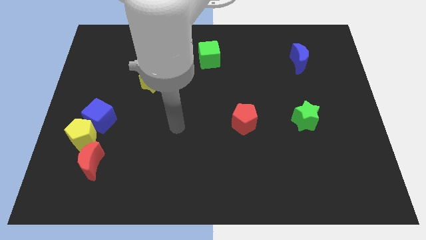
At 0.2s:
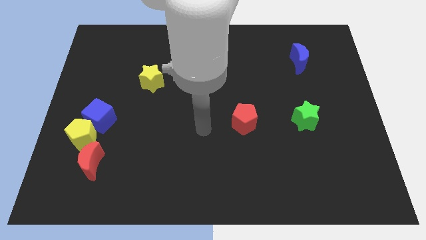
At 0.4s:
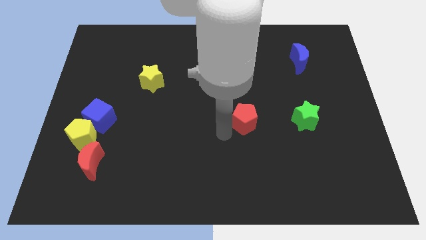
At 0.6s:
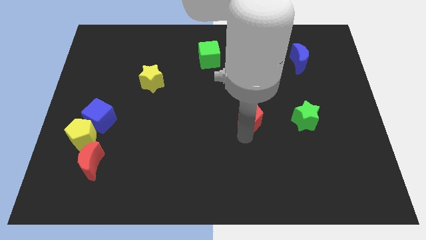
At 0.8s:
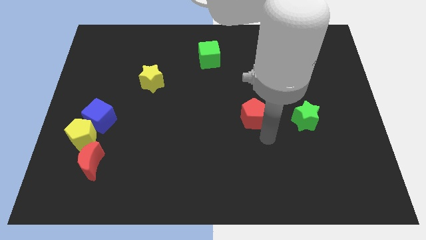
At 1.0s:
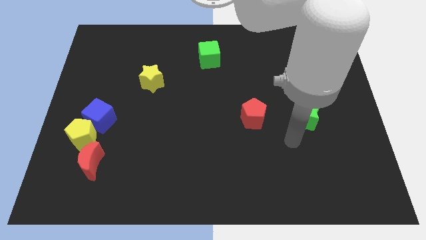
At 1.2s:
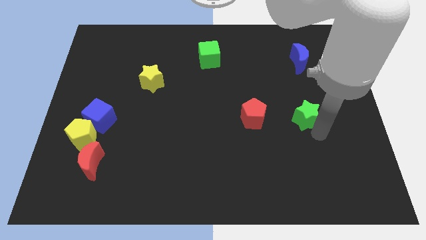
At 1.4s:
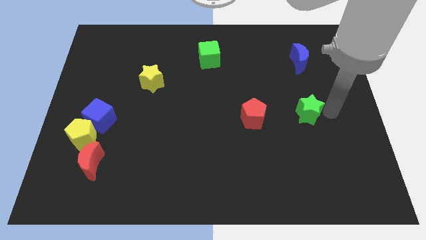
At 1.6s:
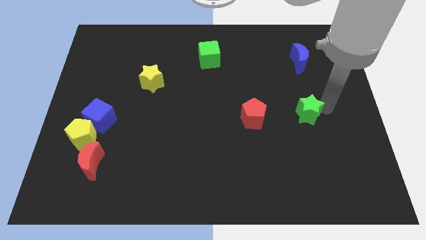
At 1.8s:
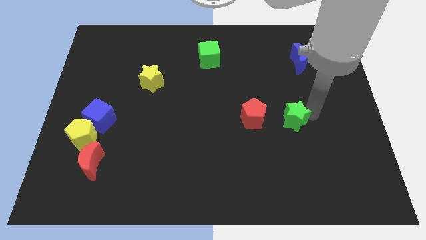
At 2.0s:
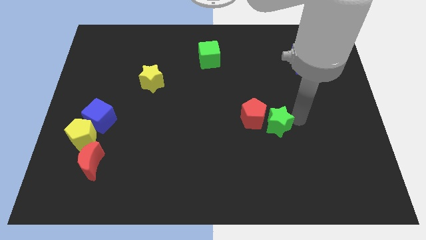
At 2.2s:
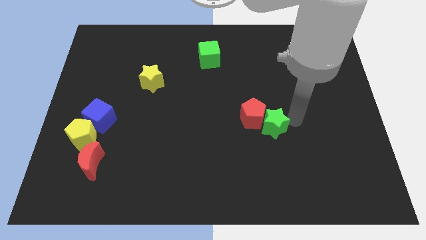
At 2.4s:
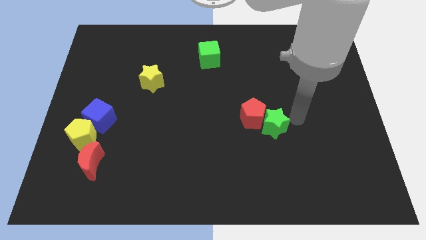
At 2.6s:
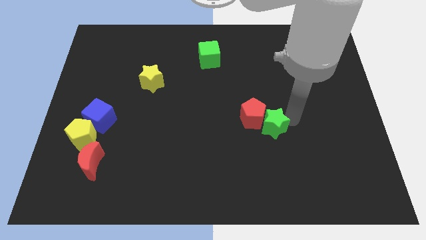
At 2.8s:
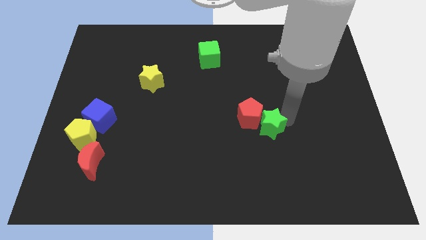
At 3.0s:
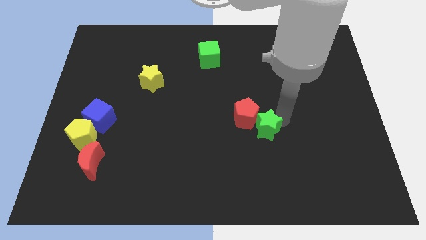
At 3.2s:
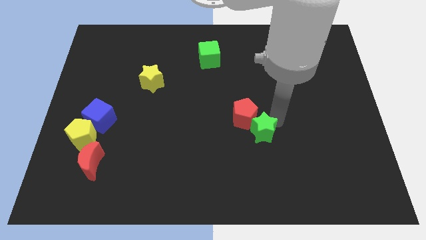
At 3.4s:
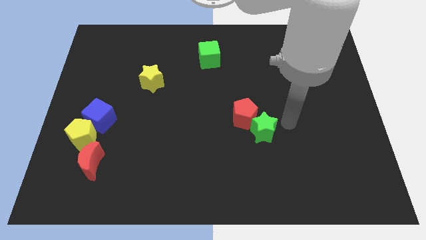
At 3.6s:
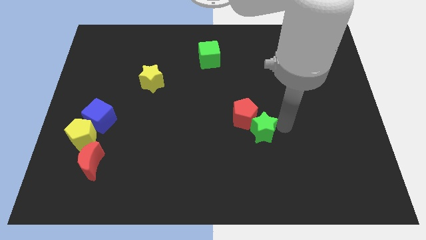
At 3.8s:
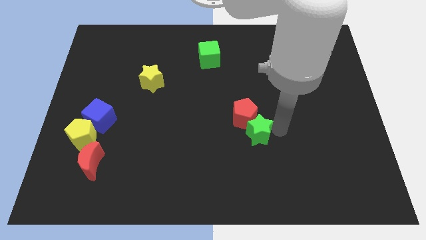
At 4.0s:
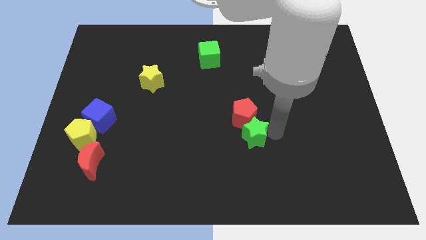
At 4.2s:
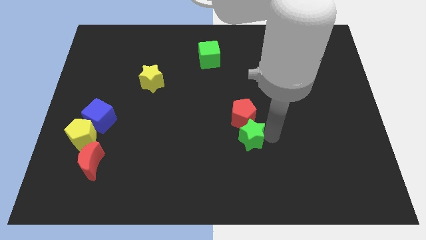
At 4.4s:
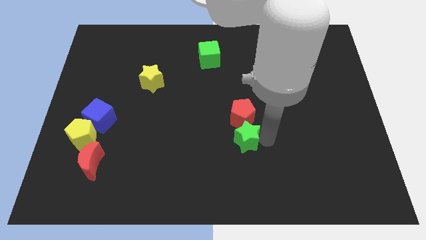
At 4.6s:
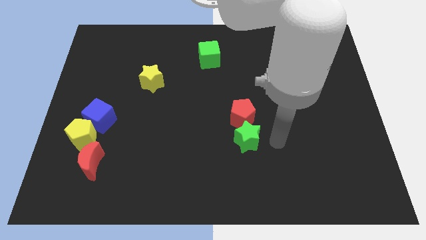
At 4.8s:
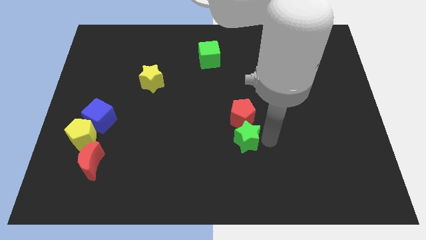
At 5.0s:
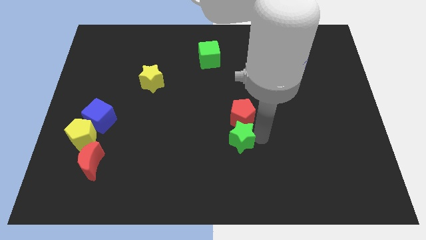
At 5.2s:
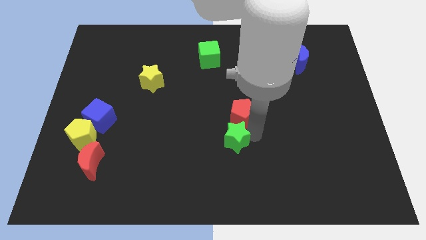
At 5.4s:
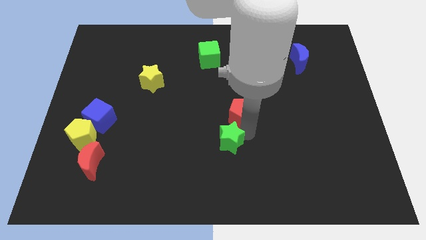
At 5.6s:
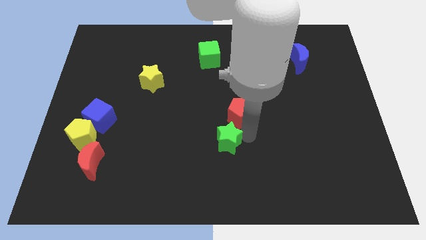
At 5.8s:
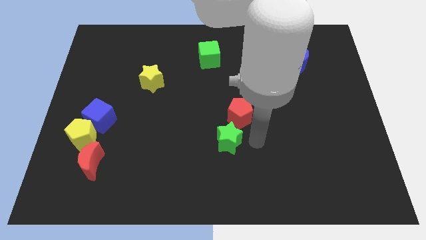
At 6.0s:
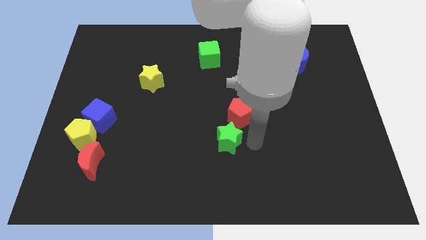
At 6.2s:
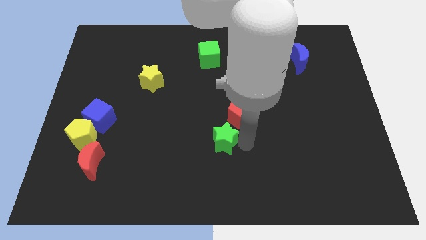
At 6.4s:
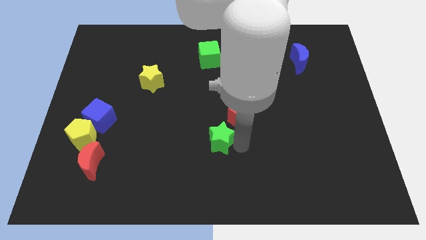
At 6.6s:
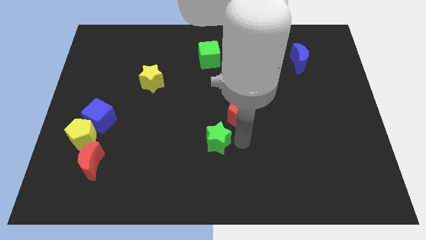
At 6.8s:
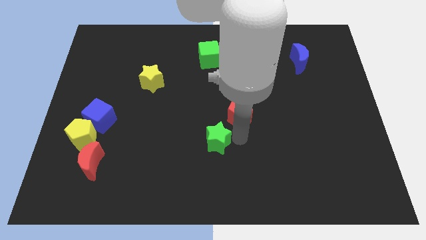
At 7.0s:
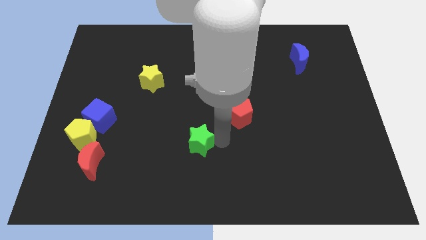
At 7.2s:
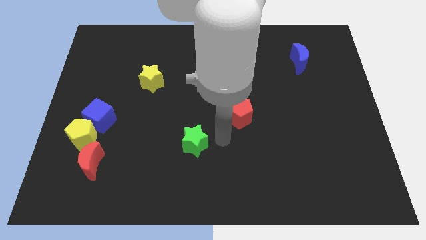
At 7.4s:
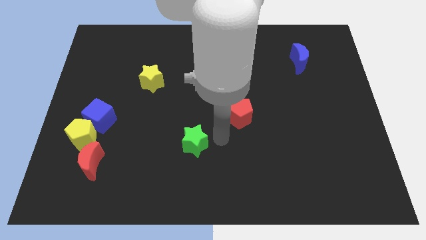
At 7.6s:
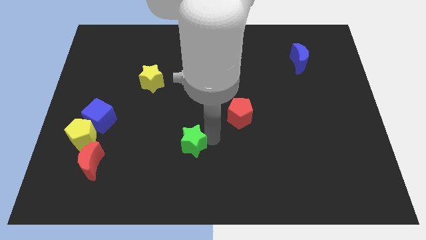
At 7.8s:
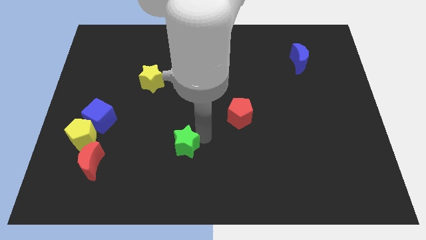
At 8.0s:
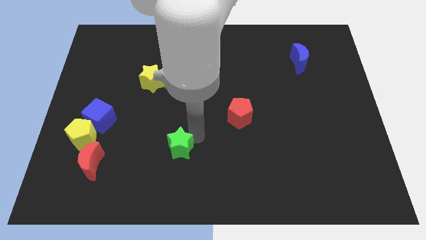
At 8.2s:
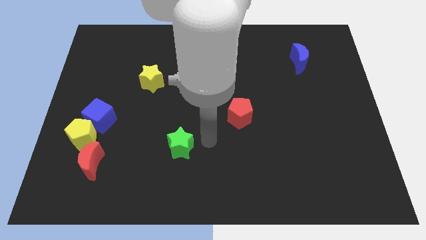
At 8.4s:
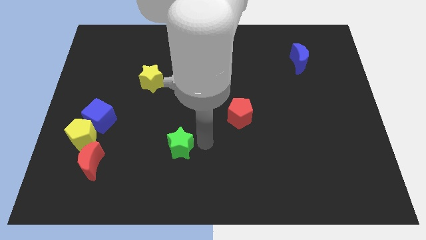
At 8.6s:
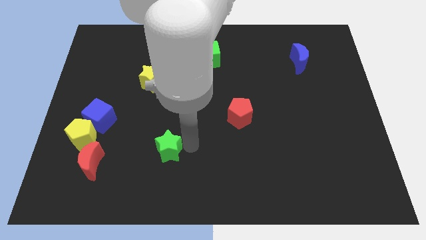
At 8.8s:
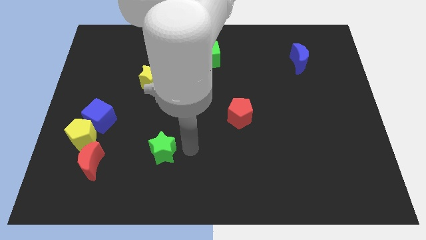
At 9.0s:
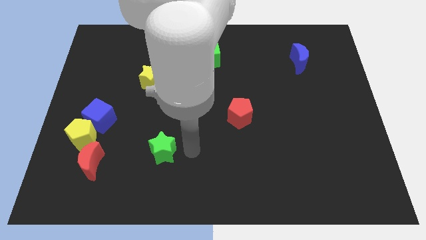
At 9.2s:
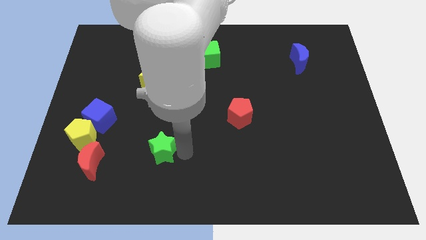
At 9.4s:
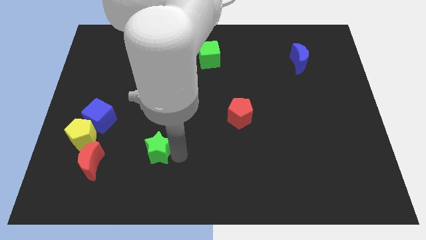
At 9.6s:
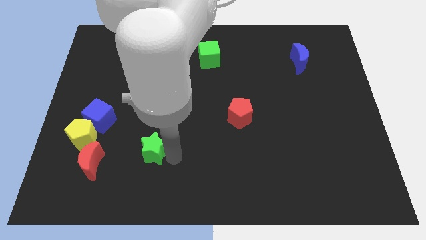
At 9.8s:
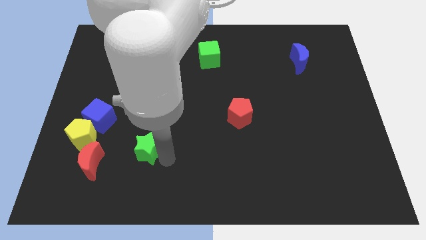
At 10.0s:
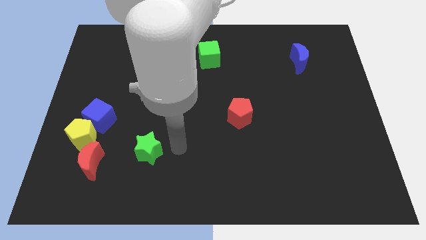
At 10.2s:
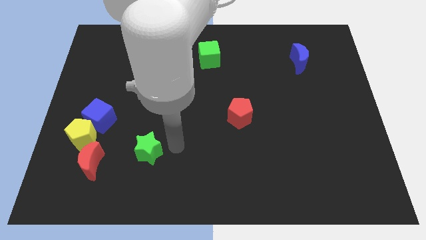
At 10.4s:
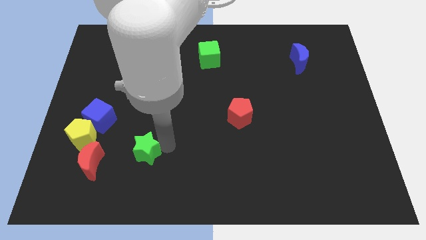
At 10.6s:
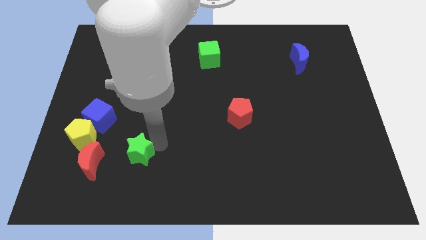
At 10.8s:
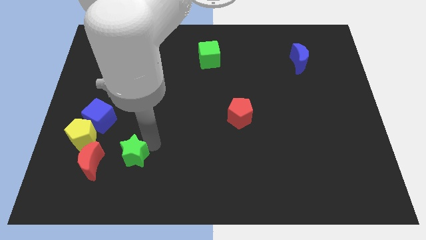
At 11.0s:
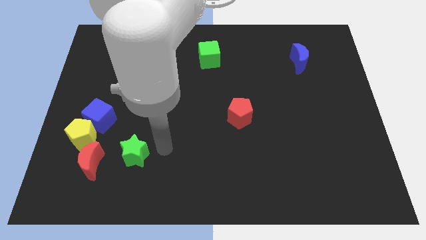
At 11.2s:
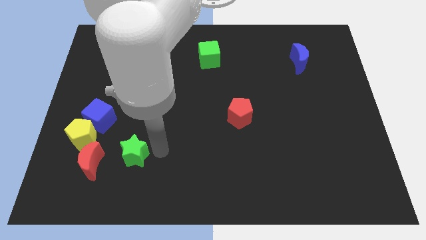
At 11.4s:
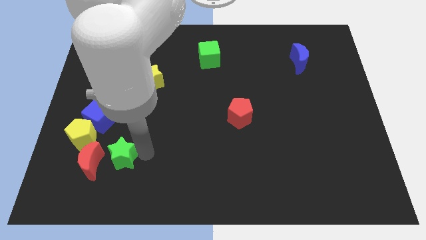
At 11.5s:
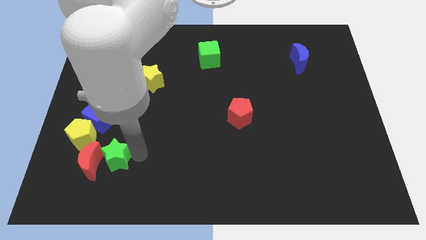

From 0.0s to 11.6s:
slide the green star towards the red moon

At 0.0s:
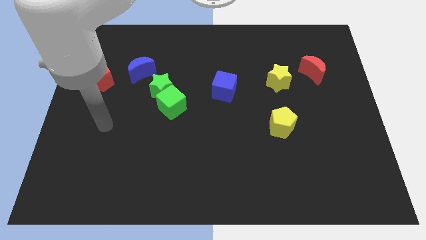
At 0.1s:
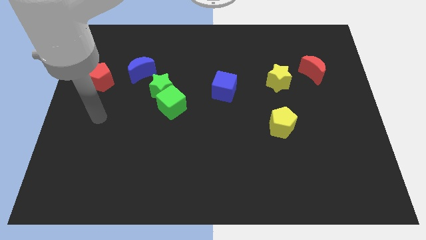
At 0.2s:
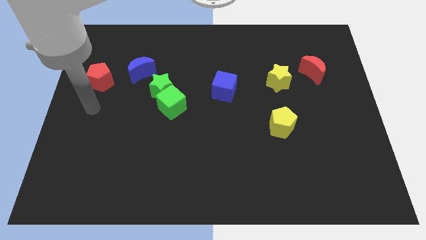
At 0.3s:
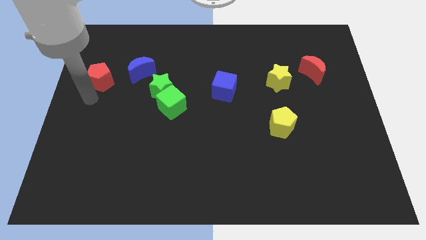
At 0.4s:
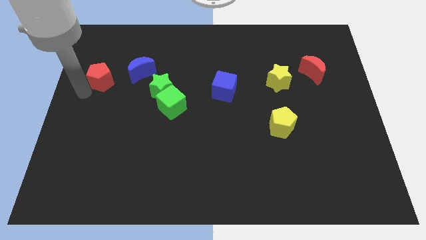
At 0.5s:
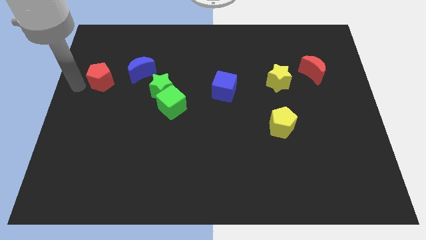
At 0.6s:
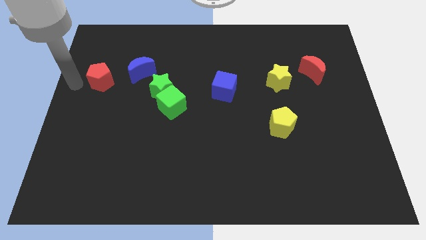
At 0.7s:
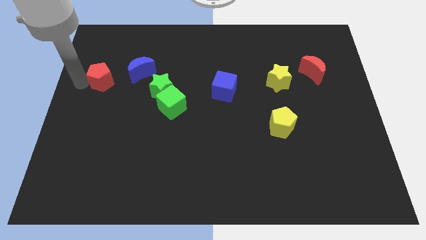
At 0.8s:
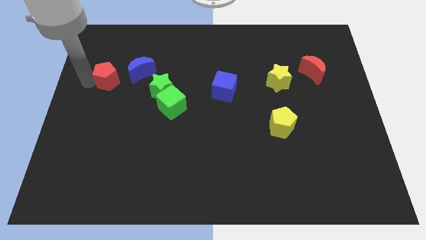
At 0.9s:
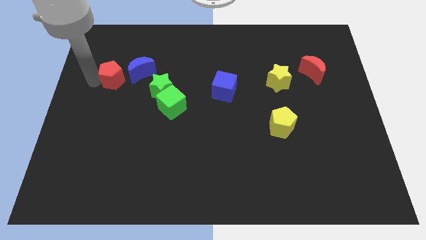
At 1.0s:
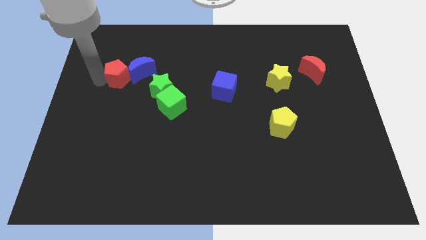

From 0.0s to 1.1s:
put the red pentagon next to the blue moon
